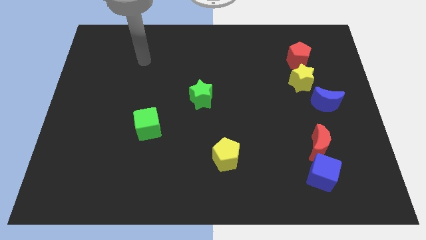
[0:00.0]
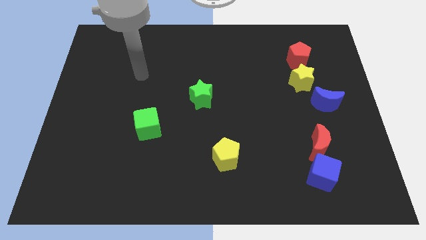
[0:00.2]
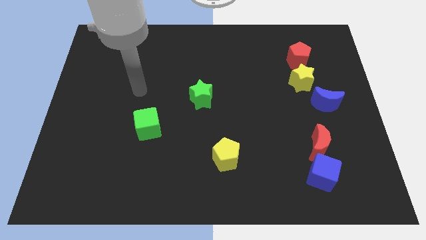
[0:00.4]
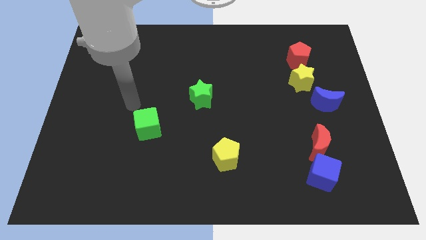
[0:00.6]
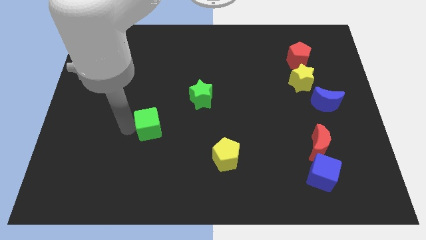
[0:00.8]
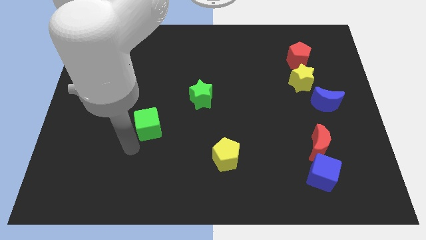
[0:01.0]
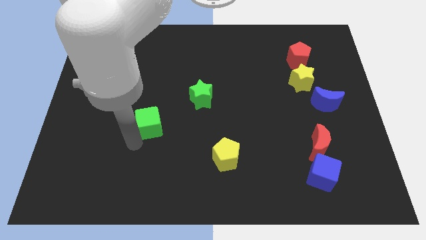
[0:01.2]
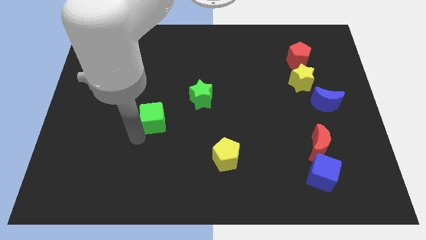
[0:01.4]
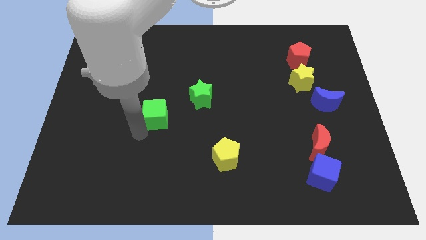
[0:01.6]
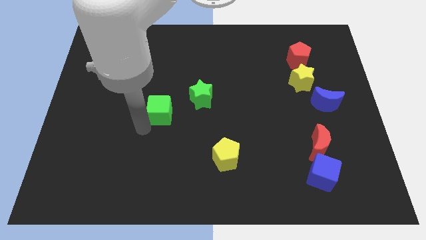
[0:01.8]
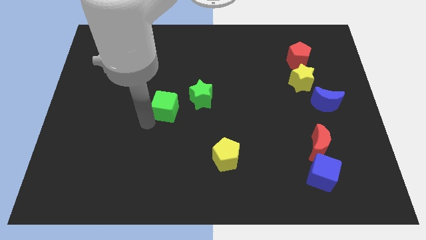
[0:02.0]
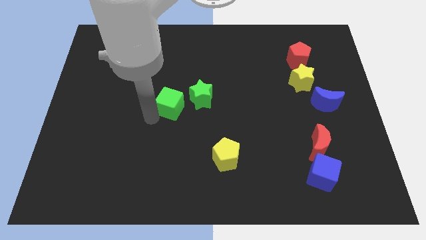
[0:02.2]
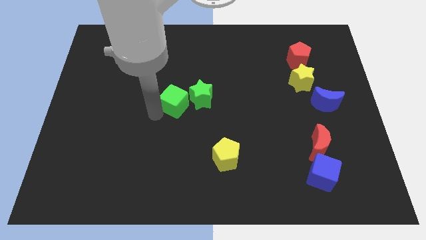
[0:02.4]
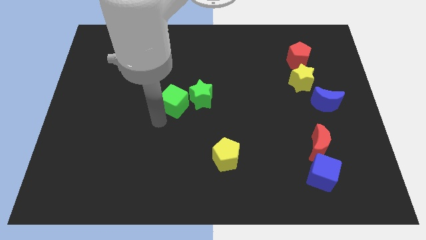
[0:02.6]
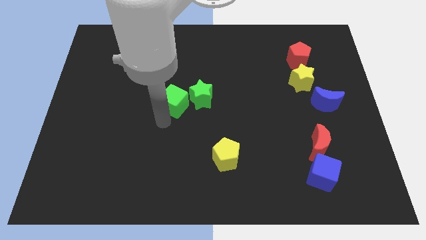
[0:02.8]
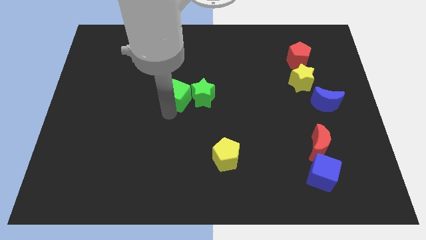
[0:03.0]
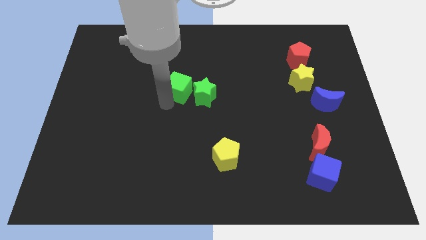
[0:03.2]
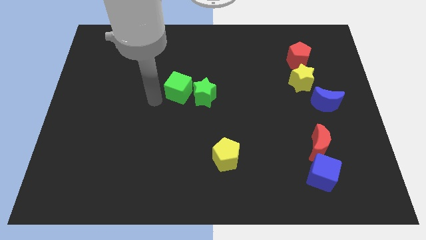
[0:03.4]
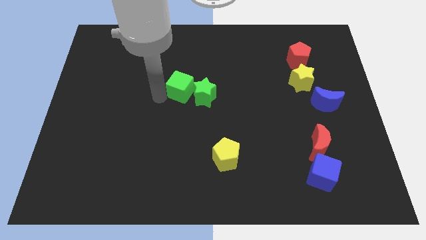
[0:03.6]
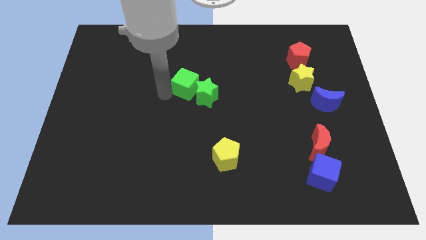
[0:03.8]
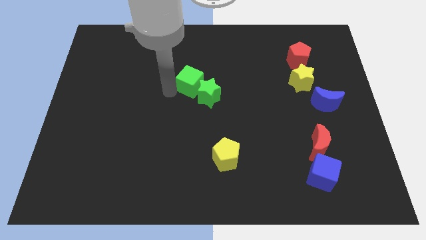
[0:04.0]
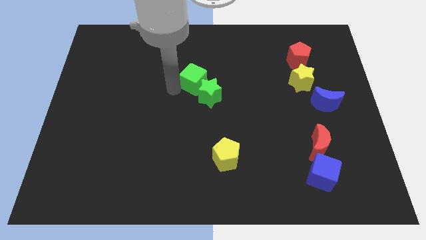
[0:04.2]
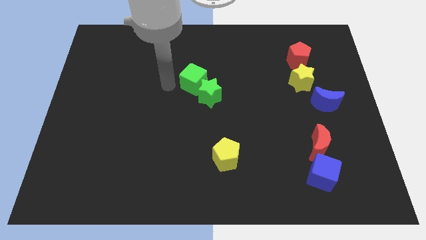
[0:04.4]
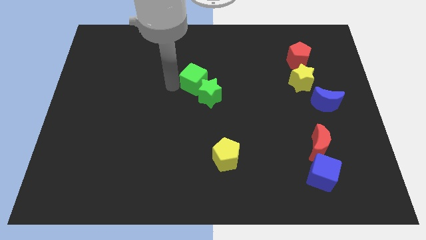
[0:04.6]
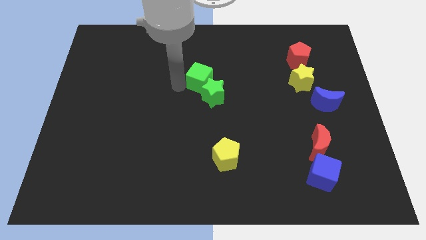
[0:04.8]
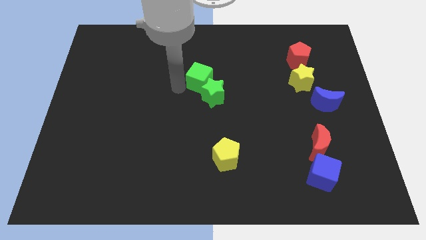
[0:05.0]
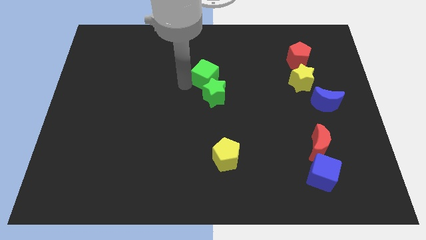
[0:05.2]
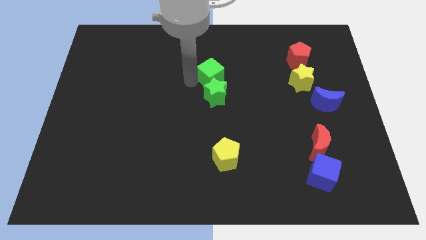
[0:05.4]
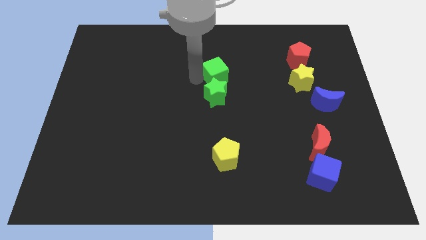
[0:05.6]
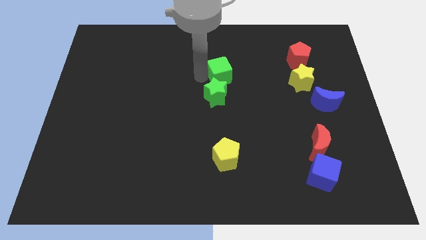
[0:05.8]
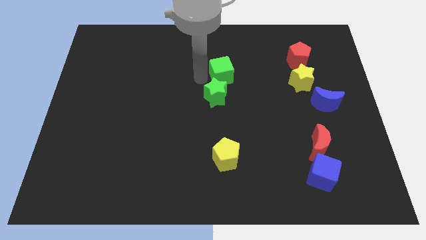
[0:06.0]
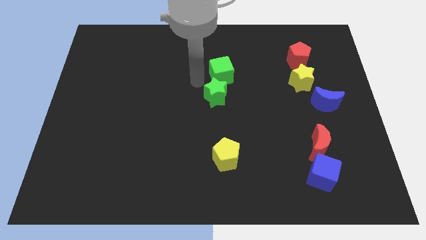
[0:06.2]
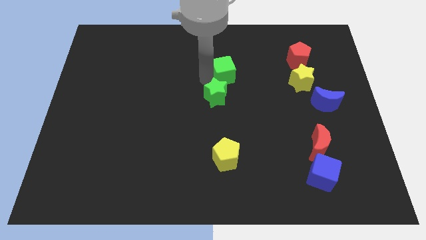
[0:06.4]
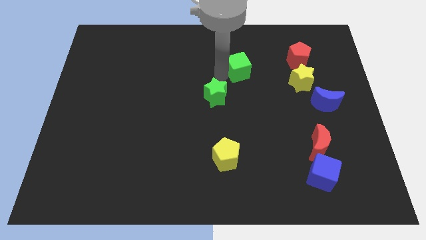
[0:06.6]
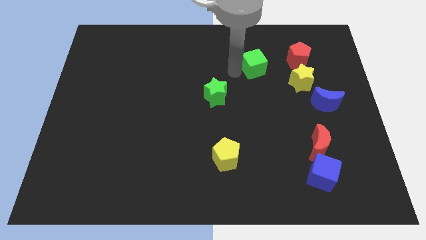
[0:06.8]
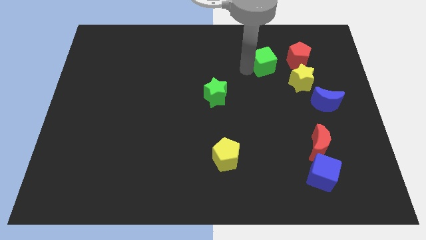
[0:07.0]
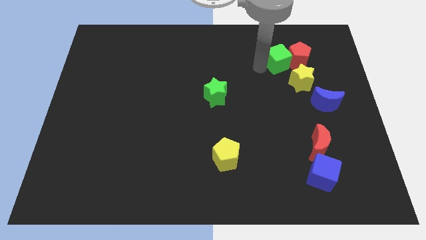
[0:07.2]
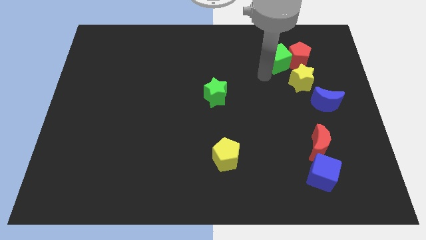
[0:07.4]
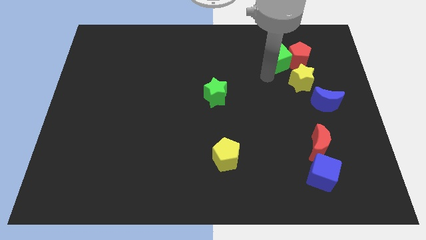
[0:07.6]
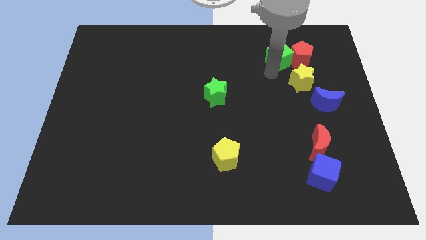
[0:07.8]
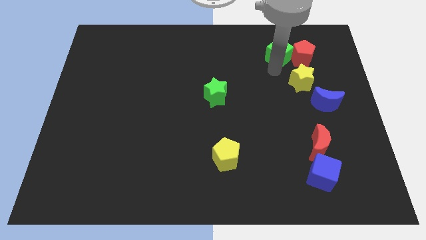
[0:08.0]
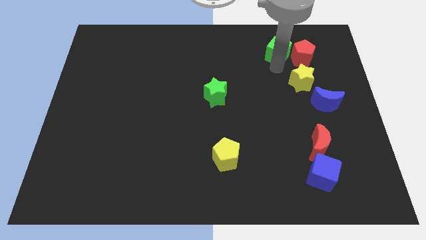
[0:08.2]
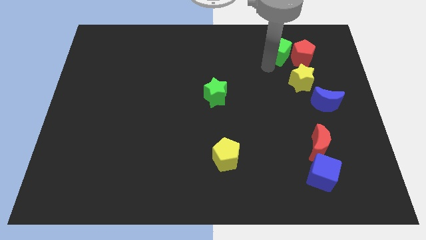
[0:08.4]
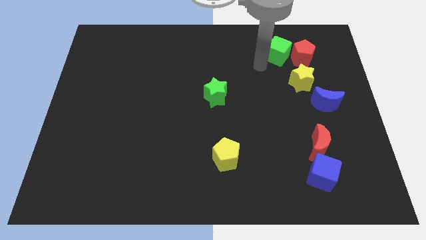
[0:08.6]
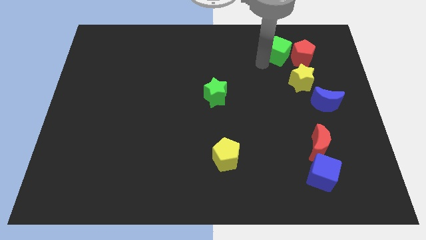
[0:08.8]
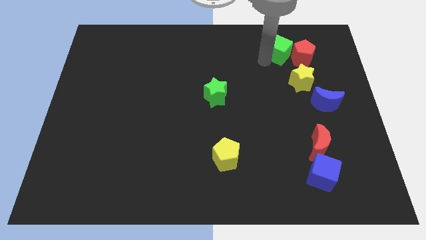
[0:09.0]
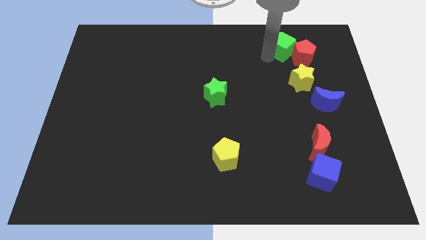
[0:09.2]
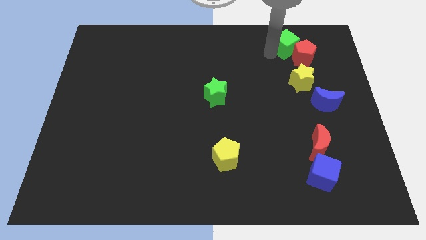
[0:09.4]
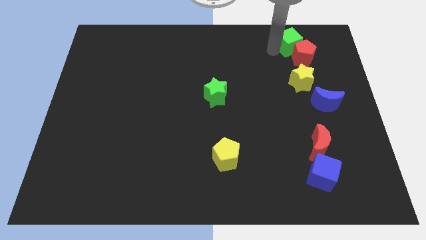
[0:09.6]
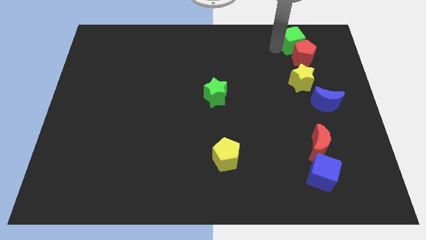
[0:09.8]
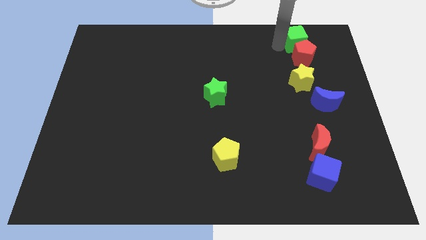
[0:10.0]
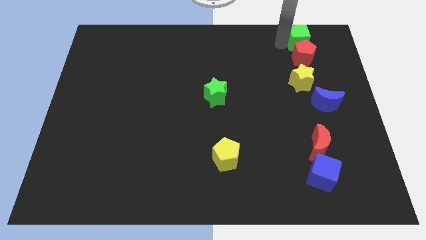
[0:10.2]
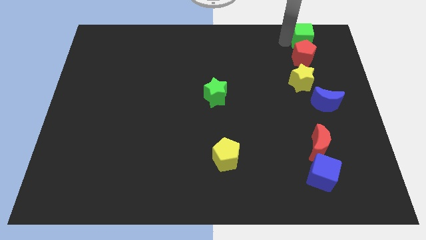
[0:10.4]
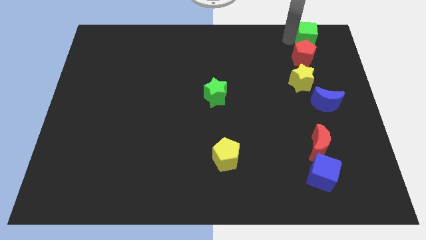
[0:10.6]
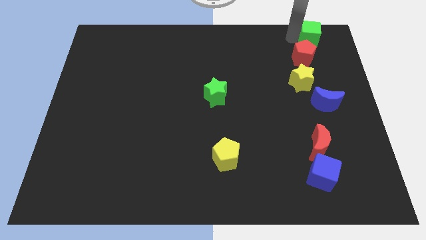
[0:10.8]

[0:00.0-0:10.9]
slide the green cube to the upper right corner

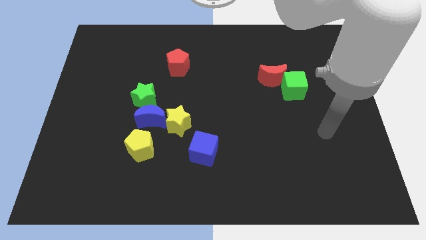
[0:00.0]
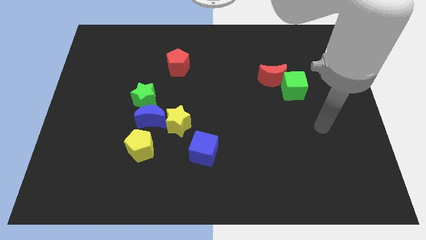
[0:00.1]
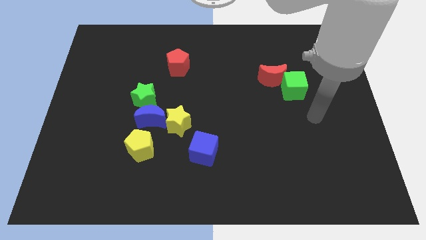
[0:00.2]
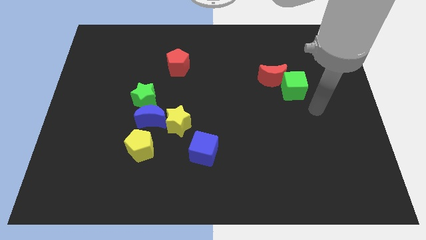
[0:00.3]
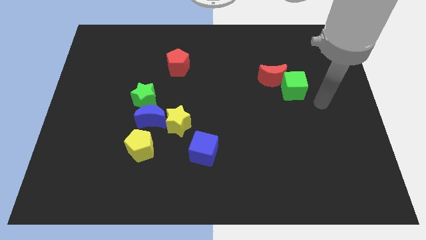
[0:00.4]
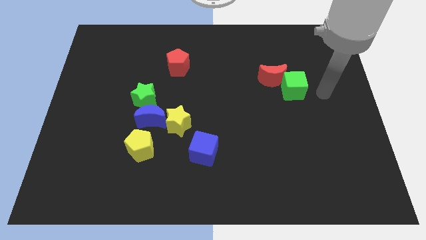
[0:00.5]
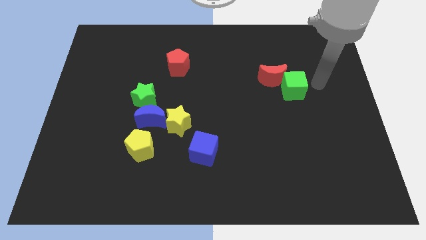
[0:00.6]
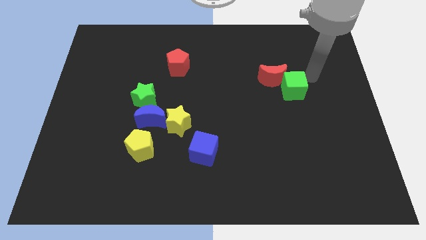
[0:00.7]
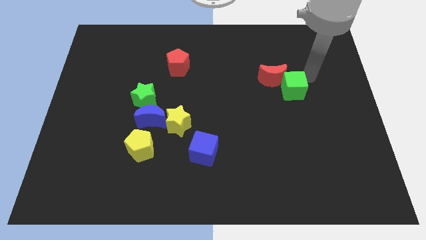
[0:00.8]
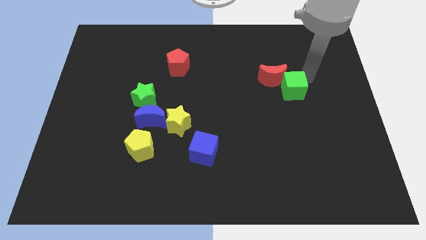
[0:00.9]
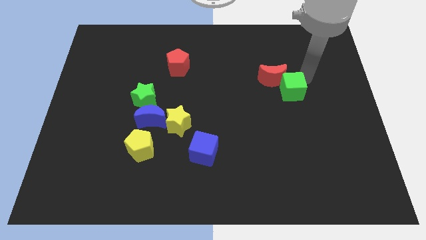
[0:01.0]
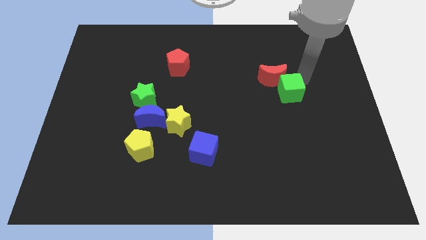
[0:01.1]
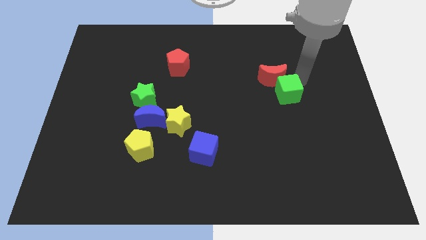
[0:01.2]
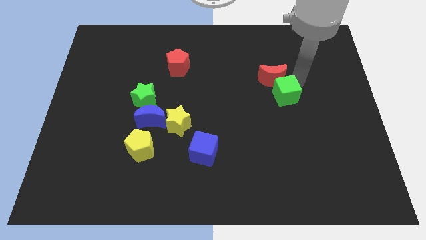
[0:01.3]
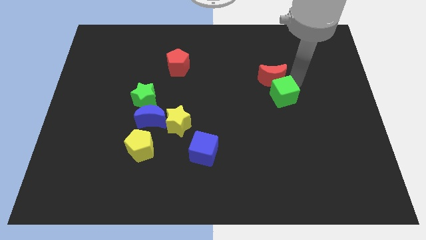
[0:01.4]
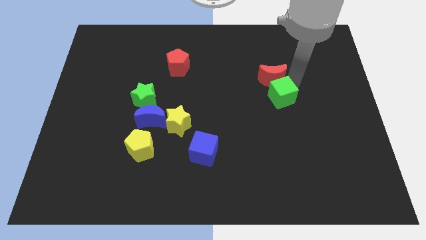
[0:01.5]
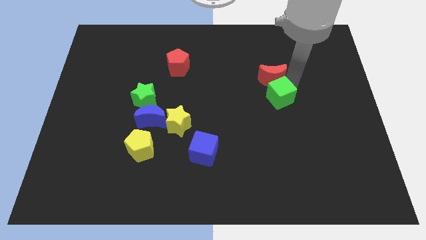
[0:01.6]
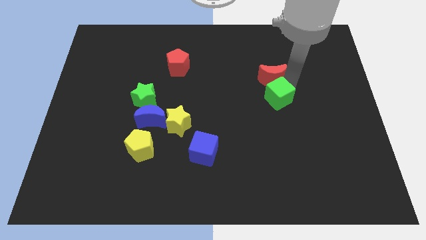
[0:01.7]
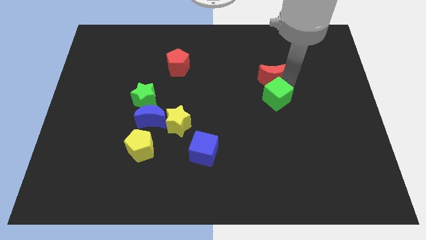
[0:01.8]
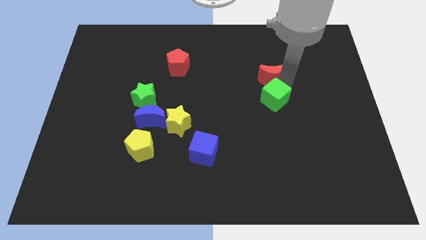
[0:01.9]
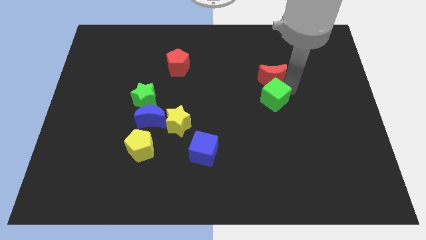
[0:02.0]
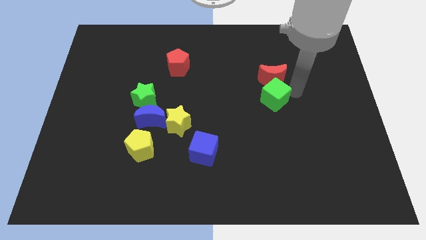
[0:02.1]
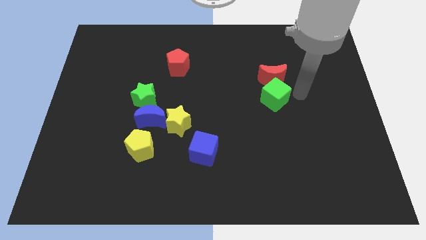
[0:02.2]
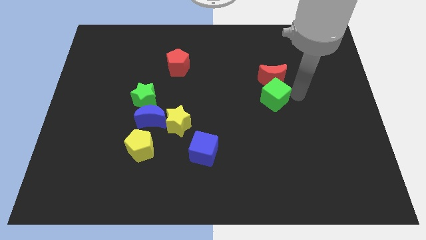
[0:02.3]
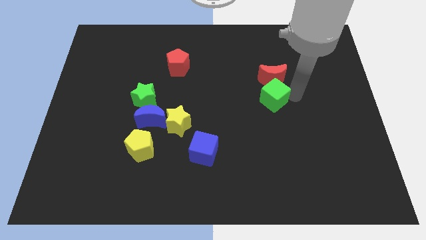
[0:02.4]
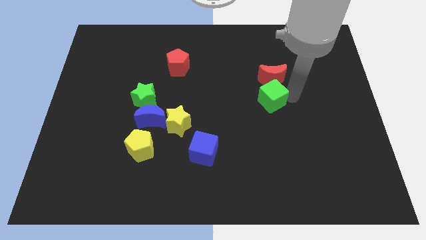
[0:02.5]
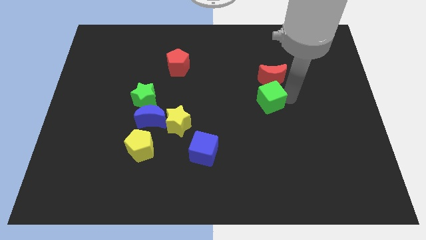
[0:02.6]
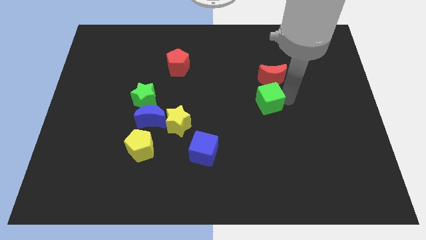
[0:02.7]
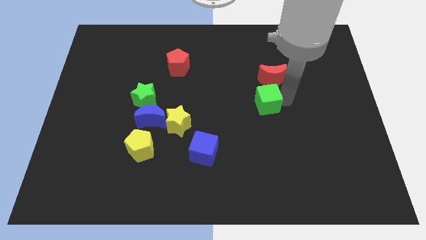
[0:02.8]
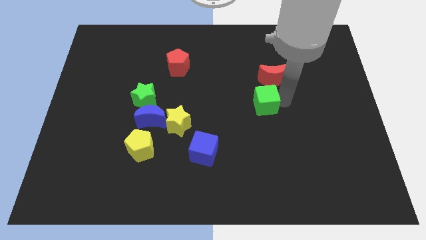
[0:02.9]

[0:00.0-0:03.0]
move the green cube to the center
